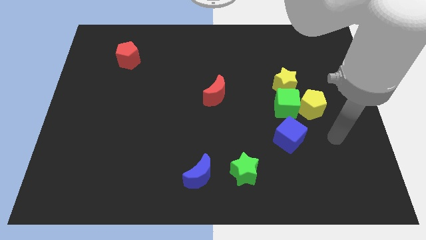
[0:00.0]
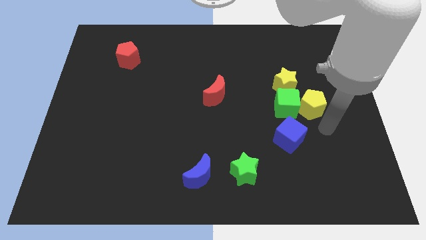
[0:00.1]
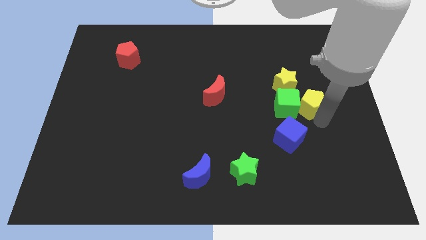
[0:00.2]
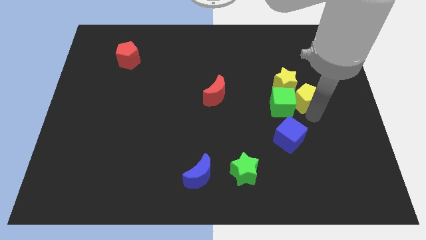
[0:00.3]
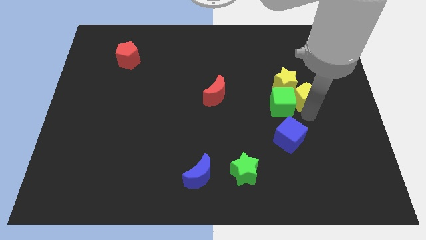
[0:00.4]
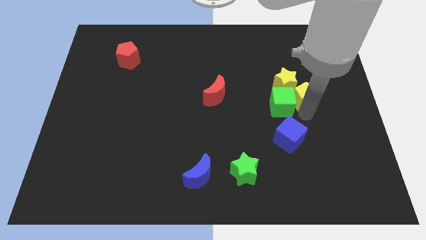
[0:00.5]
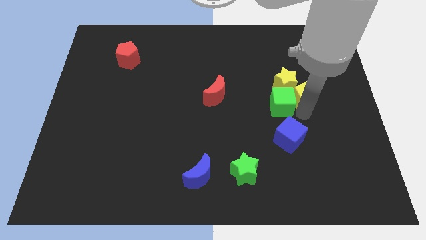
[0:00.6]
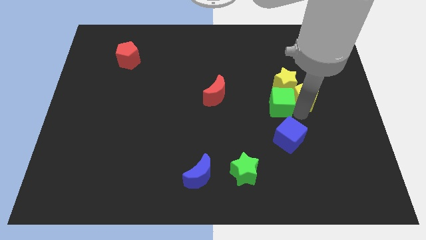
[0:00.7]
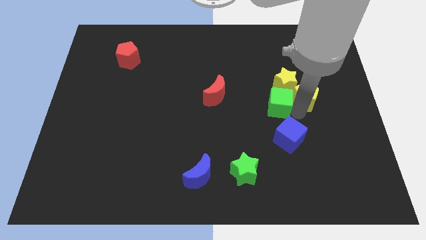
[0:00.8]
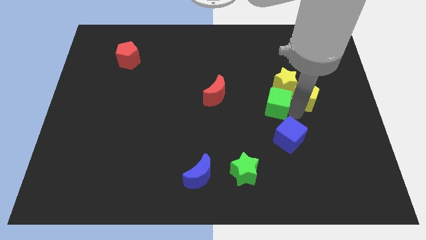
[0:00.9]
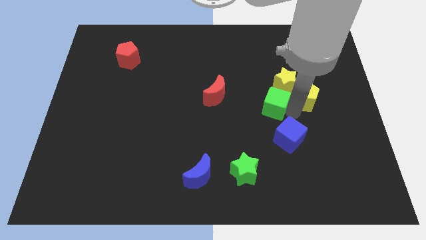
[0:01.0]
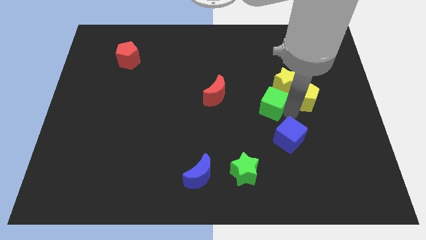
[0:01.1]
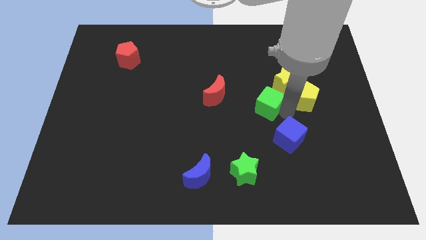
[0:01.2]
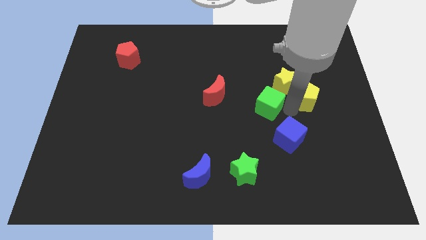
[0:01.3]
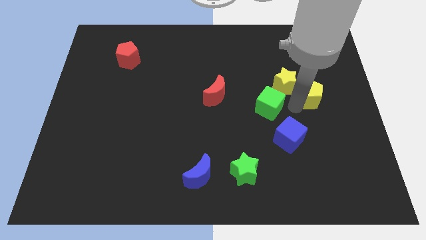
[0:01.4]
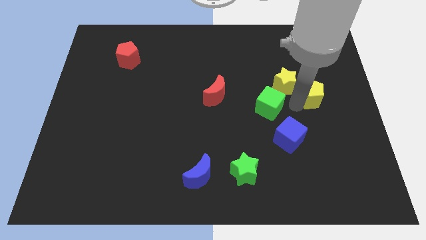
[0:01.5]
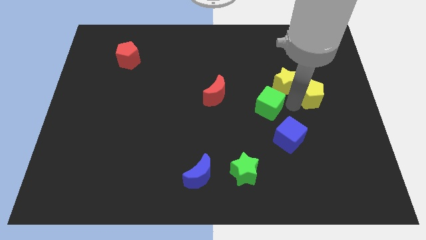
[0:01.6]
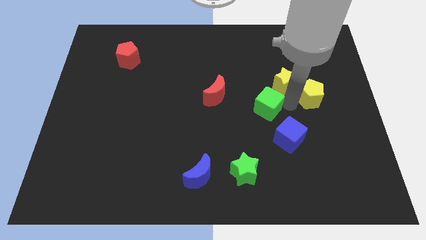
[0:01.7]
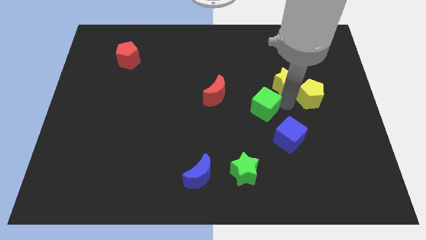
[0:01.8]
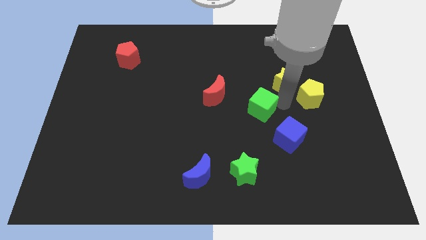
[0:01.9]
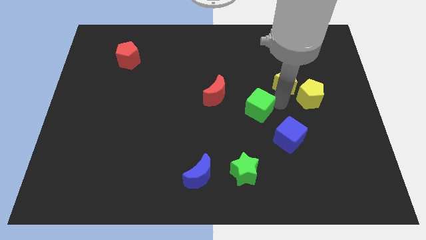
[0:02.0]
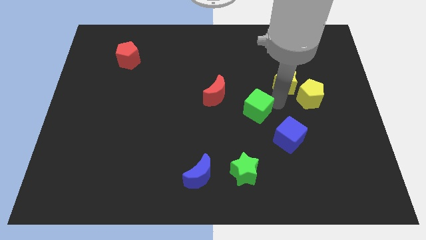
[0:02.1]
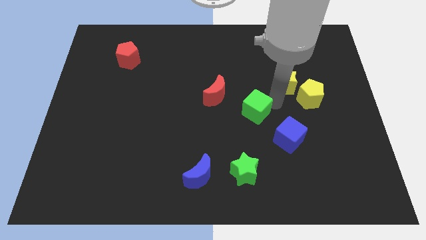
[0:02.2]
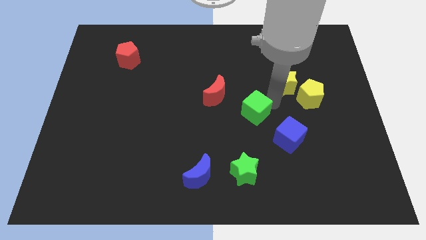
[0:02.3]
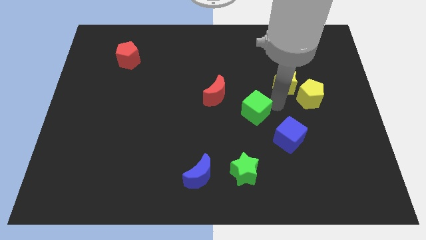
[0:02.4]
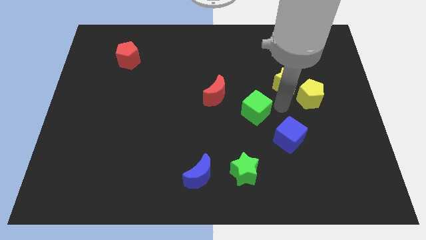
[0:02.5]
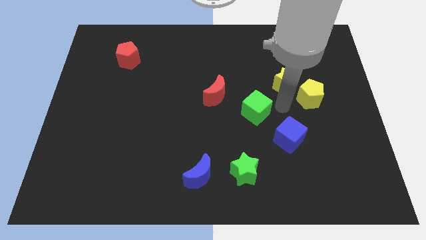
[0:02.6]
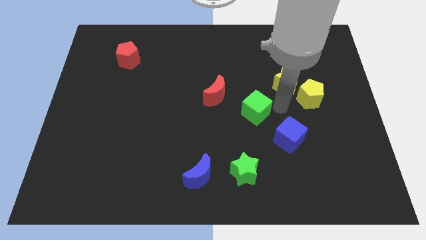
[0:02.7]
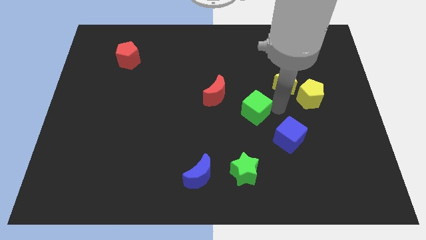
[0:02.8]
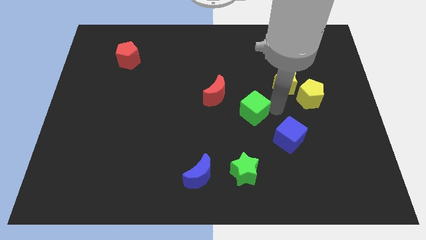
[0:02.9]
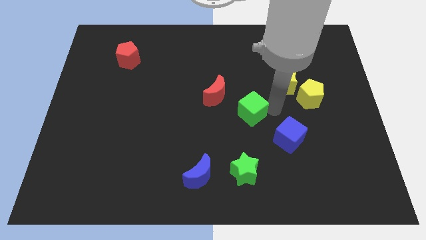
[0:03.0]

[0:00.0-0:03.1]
pull the green cube apart from the group of blocks

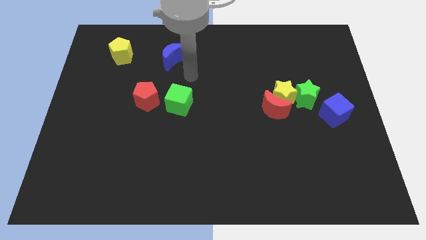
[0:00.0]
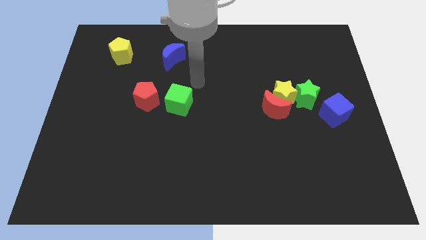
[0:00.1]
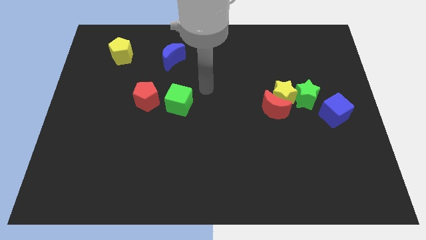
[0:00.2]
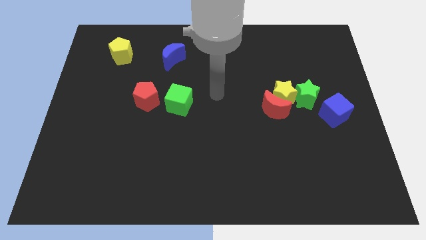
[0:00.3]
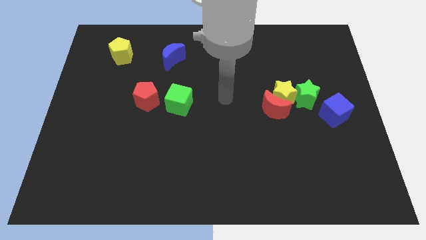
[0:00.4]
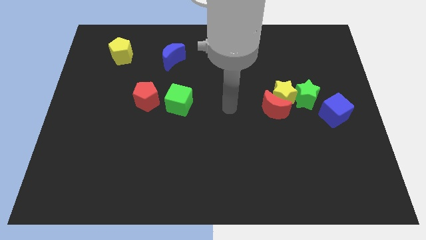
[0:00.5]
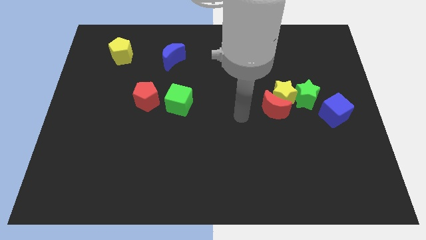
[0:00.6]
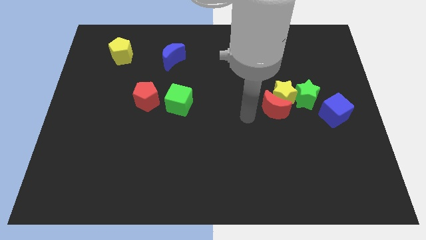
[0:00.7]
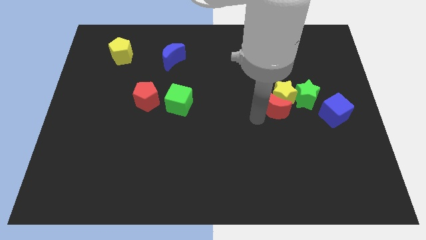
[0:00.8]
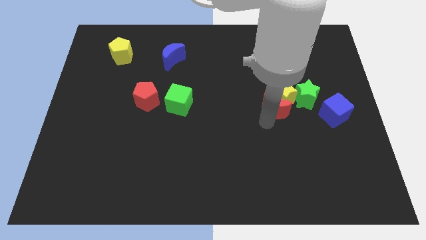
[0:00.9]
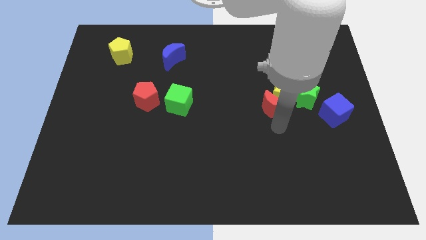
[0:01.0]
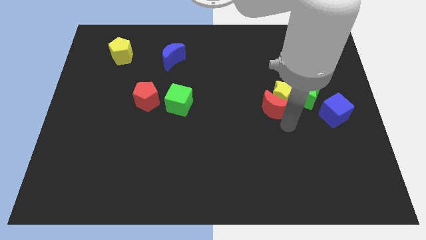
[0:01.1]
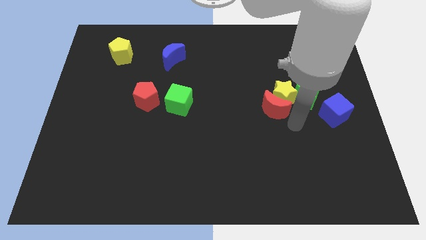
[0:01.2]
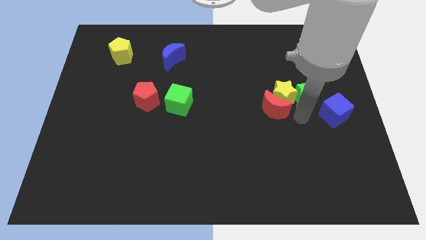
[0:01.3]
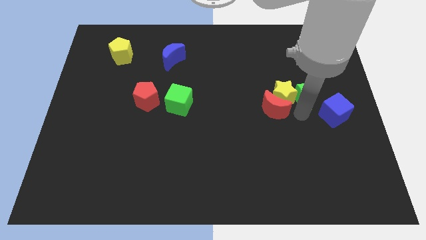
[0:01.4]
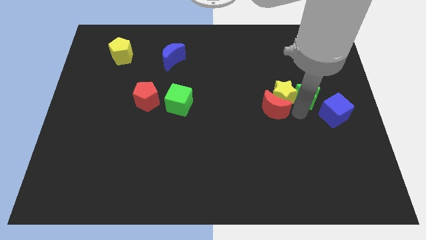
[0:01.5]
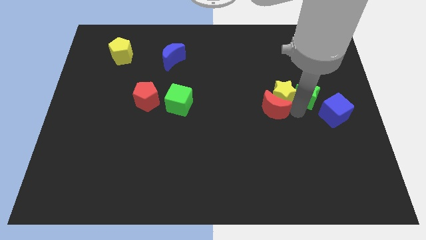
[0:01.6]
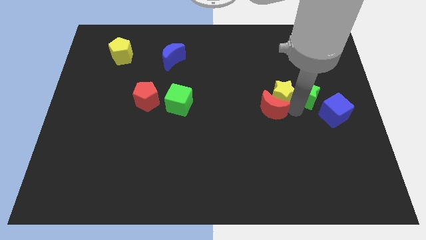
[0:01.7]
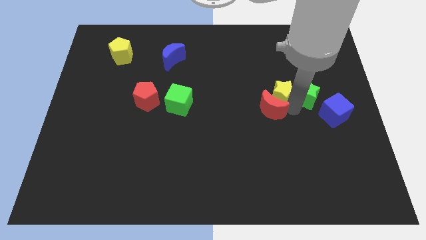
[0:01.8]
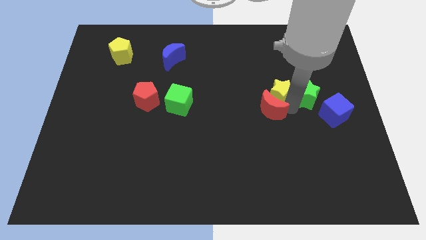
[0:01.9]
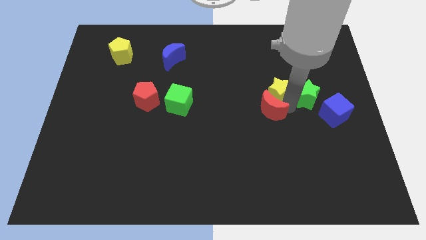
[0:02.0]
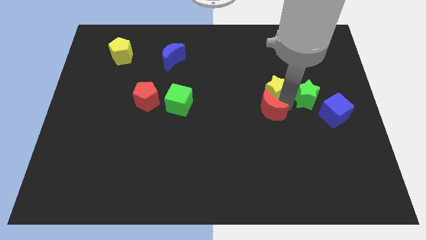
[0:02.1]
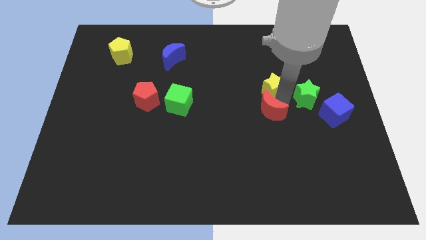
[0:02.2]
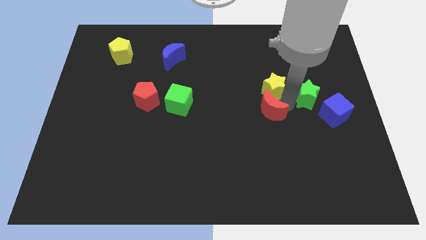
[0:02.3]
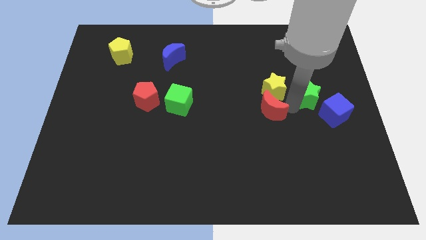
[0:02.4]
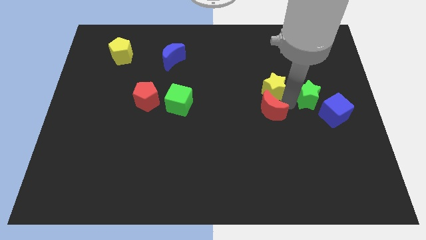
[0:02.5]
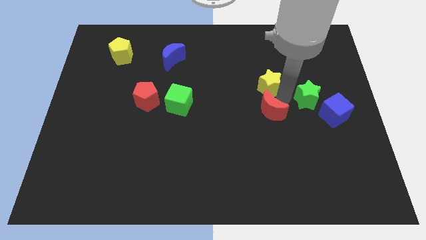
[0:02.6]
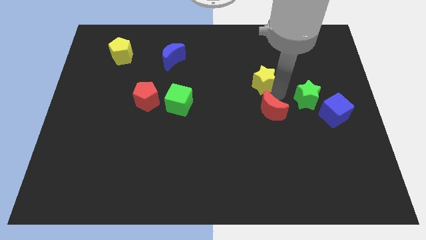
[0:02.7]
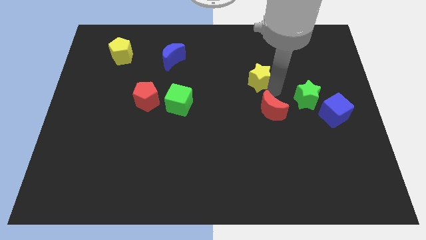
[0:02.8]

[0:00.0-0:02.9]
separate the yellow star from the red moon and green star

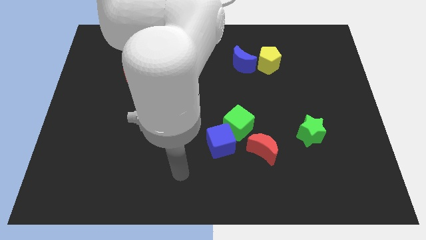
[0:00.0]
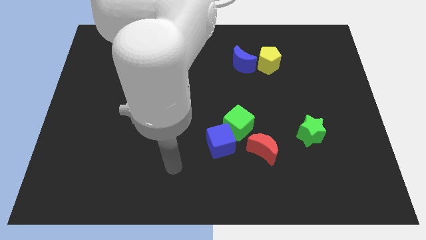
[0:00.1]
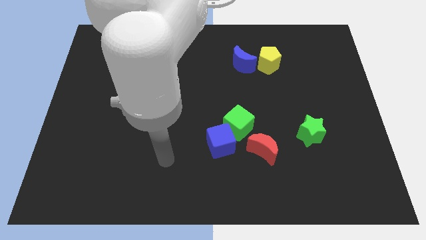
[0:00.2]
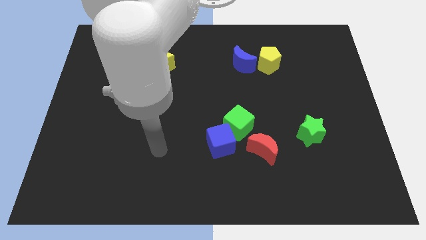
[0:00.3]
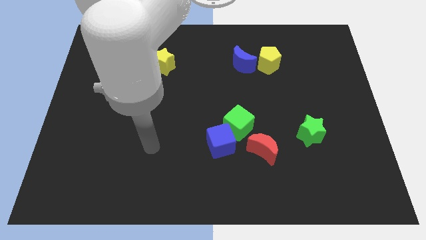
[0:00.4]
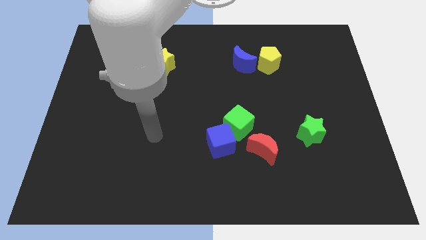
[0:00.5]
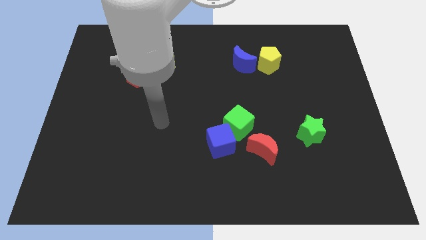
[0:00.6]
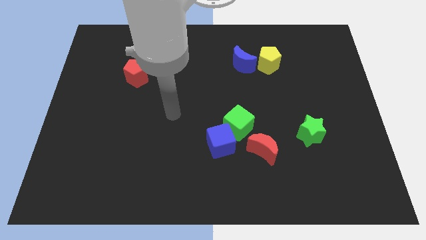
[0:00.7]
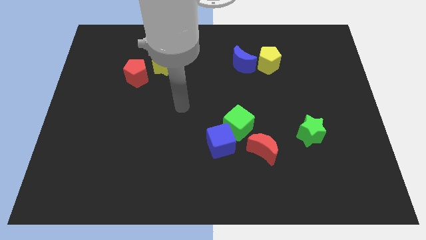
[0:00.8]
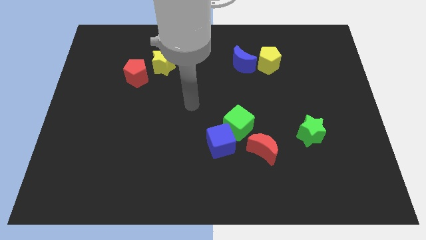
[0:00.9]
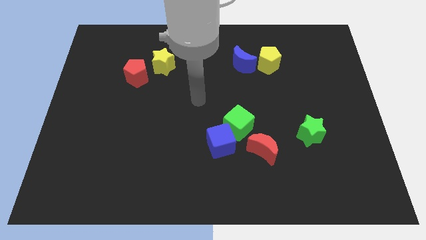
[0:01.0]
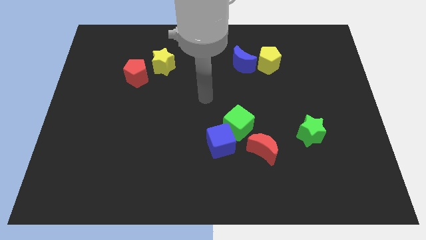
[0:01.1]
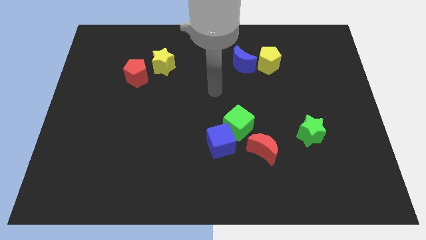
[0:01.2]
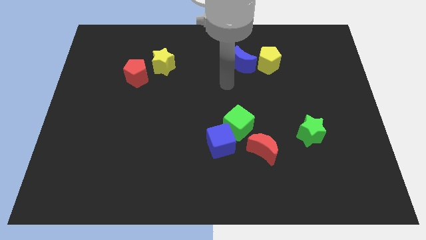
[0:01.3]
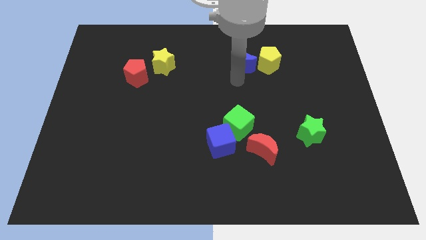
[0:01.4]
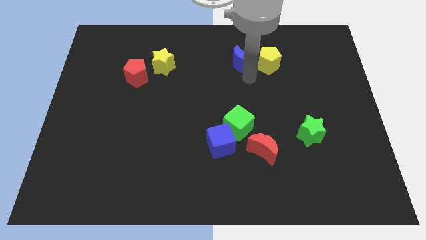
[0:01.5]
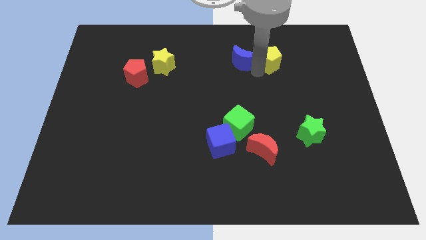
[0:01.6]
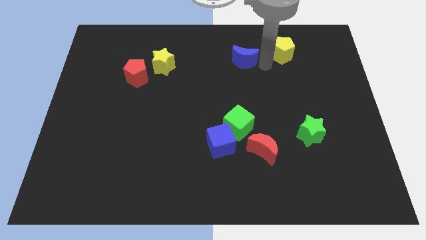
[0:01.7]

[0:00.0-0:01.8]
separate the blue moon from the yellow pentagon

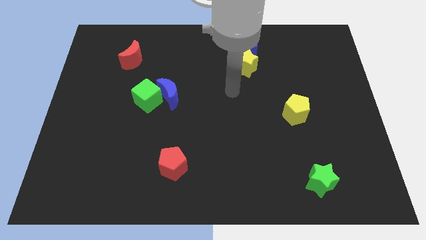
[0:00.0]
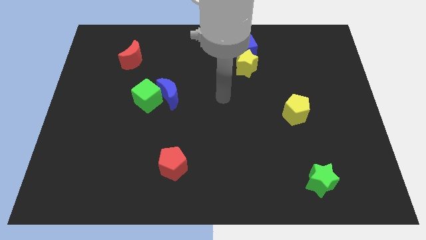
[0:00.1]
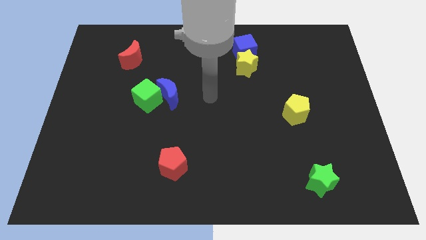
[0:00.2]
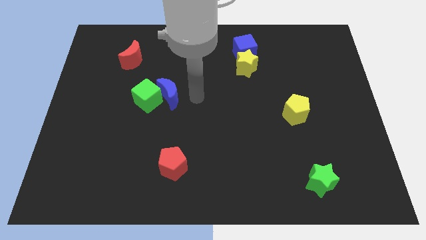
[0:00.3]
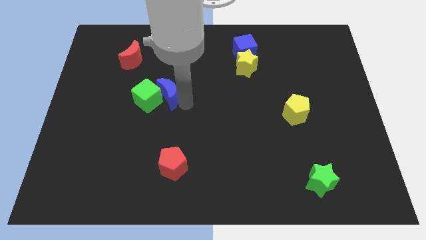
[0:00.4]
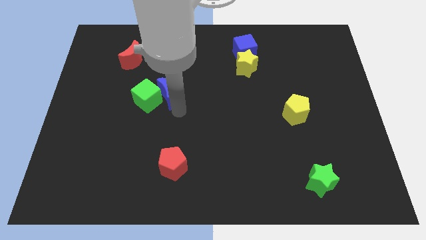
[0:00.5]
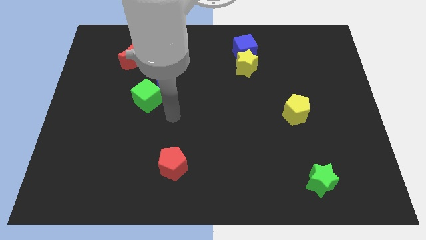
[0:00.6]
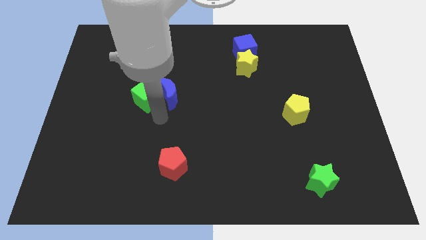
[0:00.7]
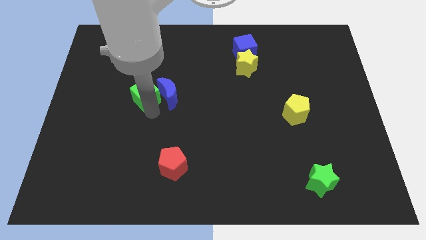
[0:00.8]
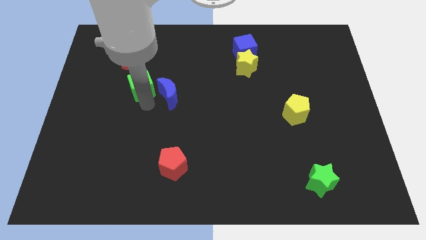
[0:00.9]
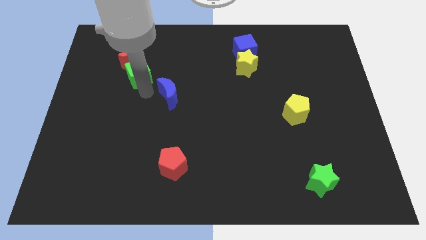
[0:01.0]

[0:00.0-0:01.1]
pull the blue moon apart from the green cube

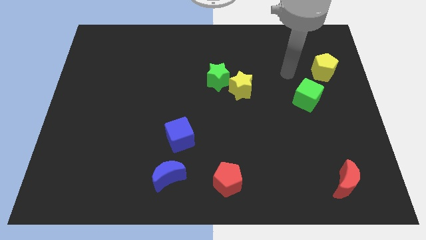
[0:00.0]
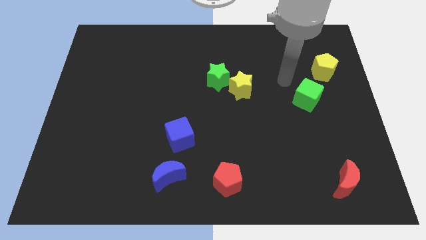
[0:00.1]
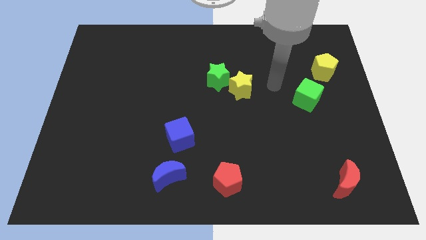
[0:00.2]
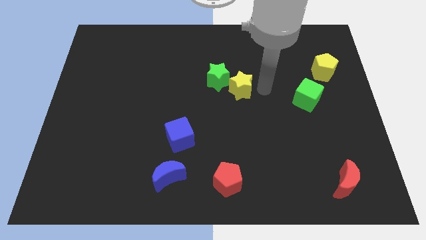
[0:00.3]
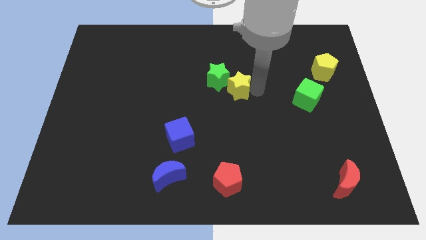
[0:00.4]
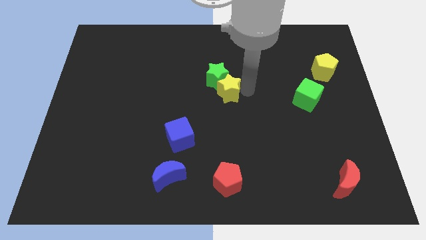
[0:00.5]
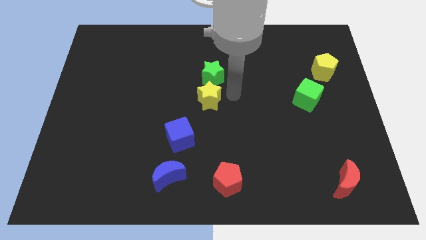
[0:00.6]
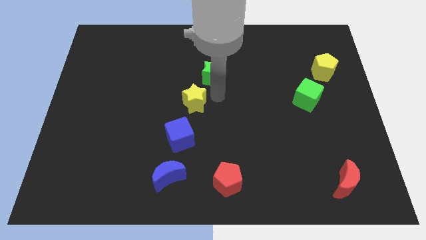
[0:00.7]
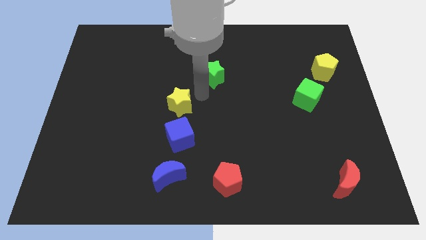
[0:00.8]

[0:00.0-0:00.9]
separate the green star from the yellow star
